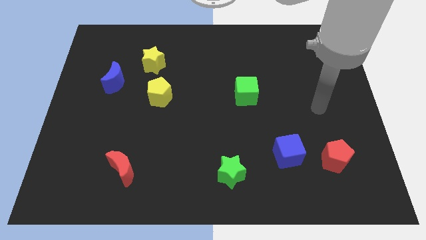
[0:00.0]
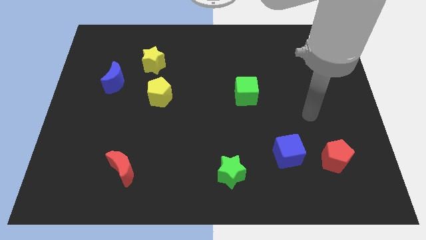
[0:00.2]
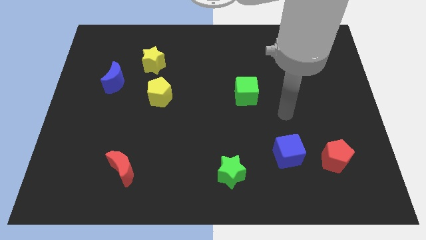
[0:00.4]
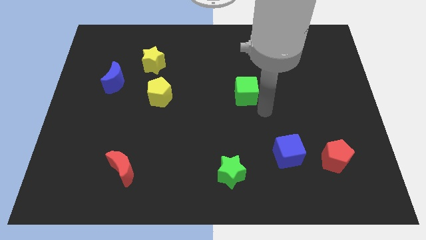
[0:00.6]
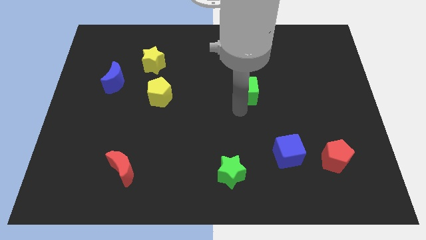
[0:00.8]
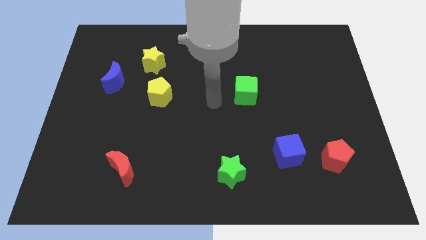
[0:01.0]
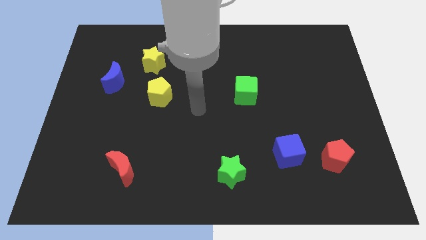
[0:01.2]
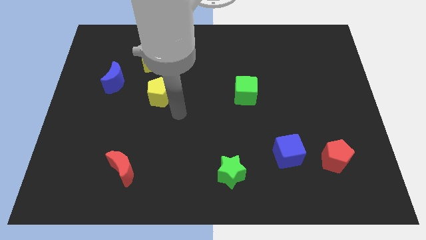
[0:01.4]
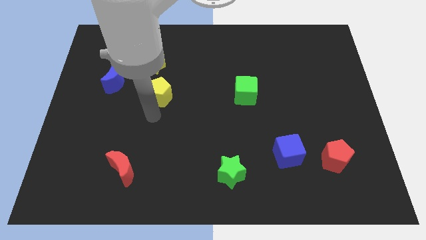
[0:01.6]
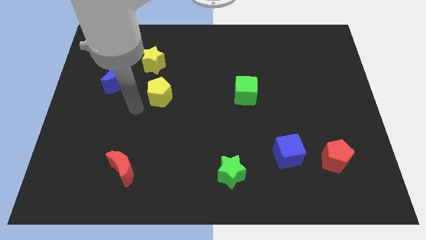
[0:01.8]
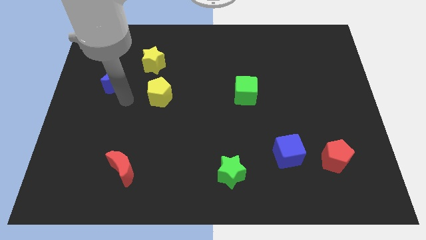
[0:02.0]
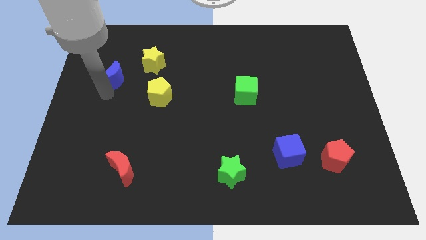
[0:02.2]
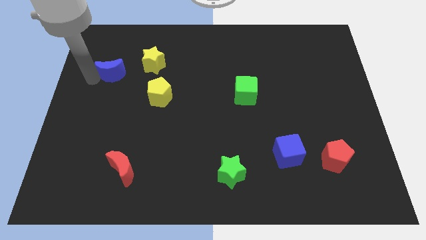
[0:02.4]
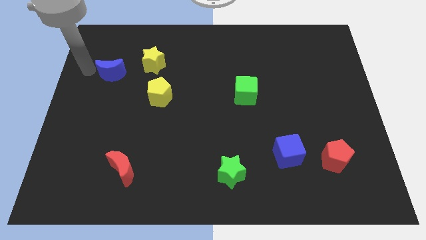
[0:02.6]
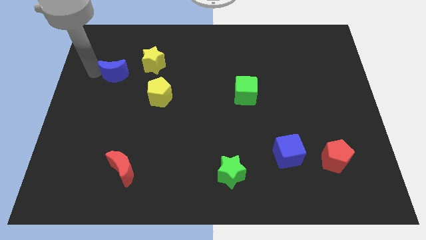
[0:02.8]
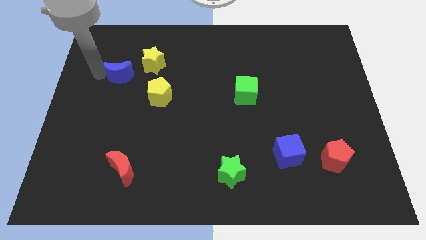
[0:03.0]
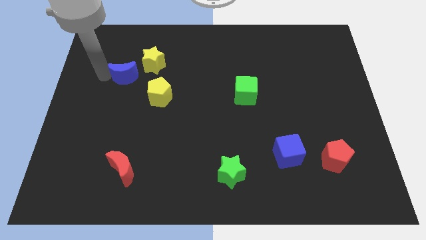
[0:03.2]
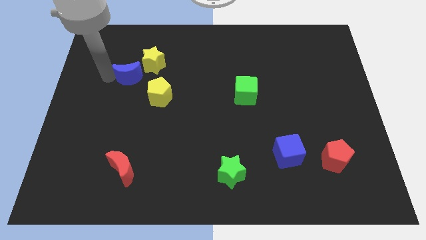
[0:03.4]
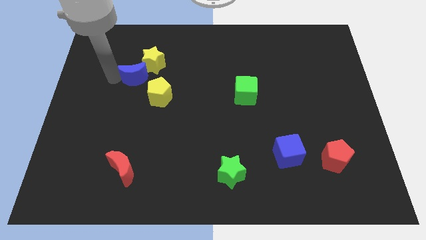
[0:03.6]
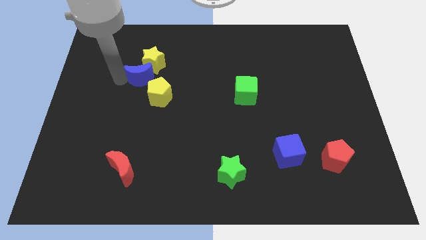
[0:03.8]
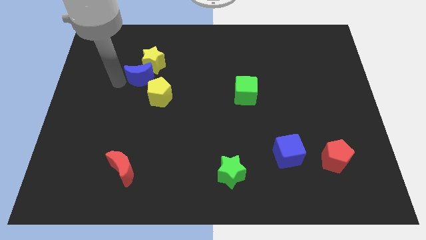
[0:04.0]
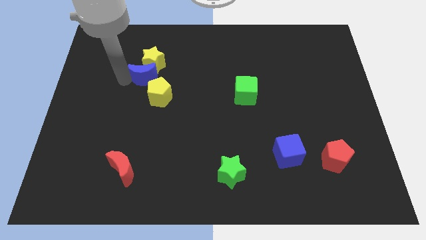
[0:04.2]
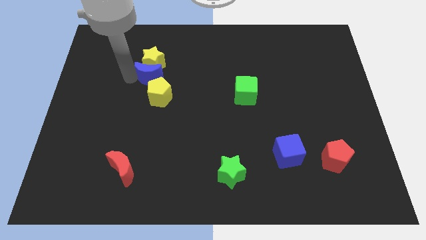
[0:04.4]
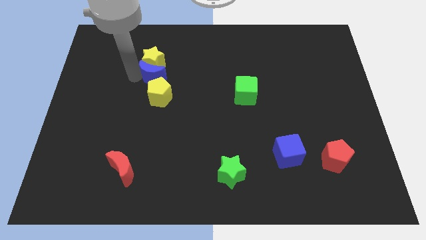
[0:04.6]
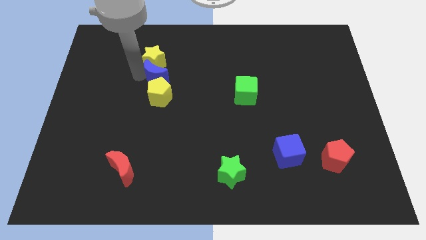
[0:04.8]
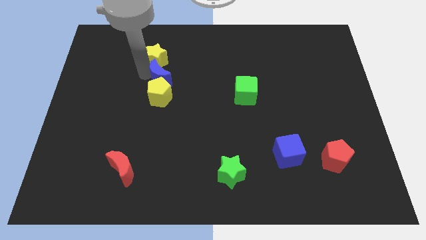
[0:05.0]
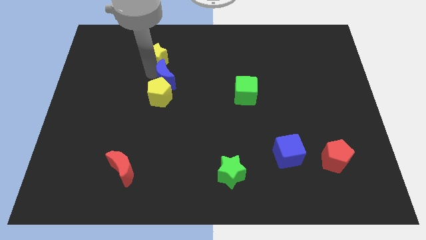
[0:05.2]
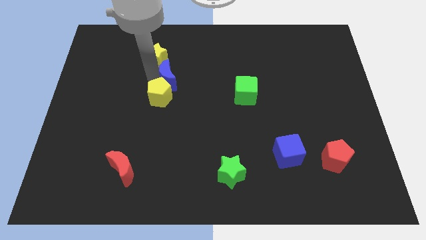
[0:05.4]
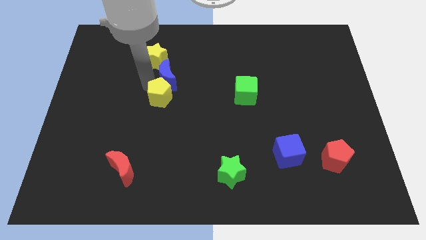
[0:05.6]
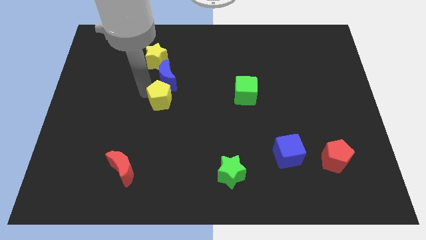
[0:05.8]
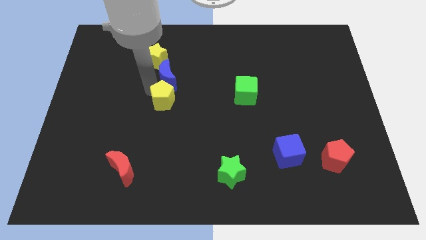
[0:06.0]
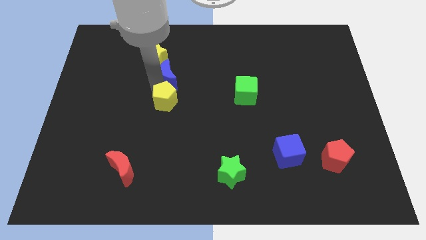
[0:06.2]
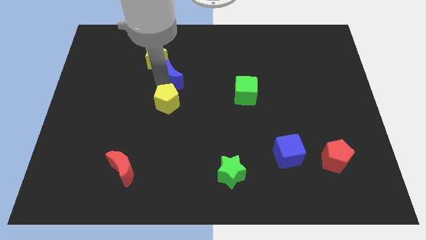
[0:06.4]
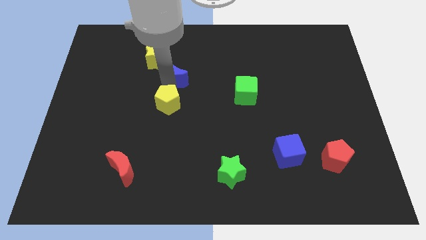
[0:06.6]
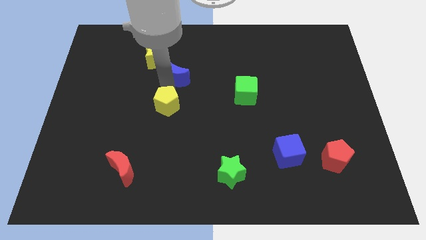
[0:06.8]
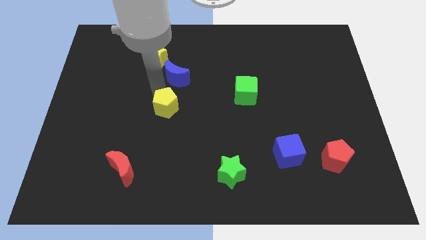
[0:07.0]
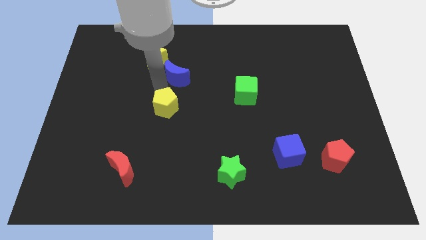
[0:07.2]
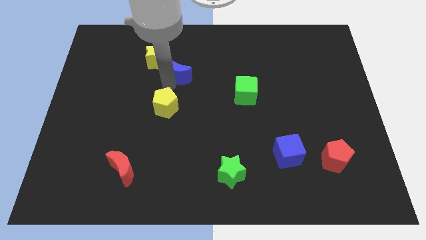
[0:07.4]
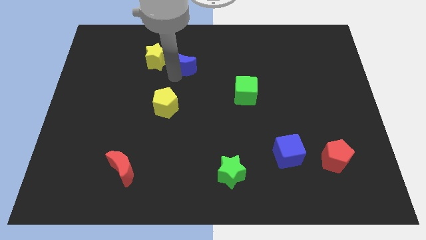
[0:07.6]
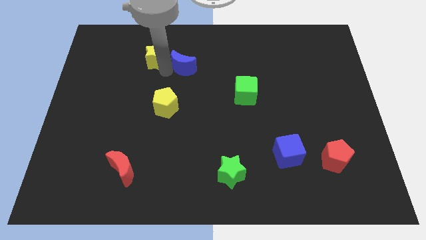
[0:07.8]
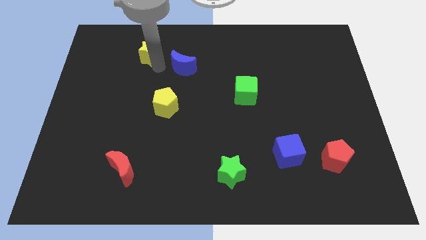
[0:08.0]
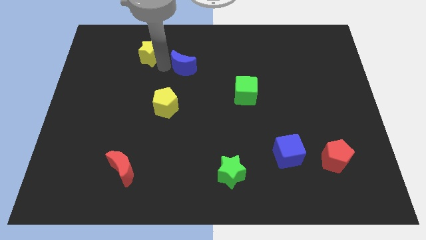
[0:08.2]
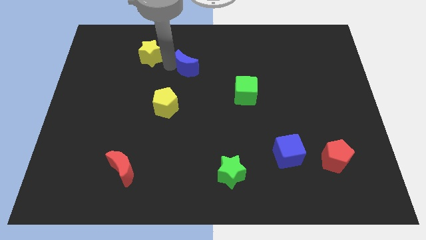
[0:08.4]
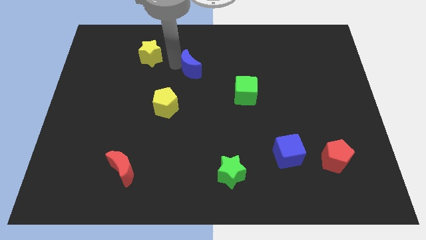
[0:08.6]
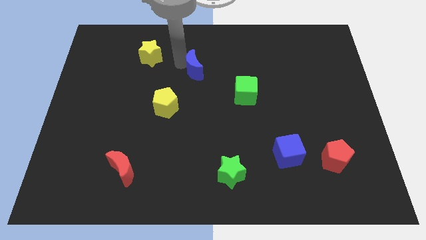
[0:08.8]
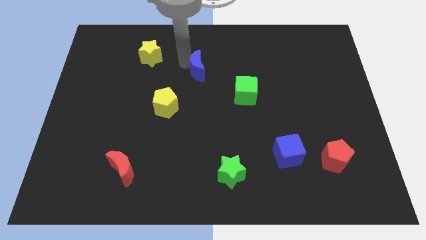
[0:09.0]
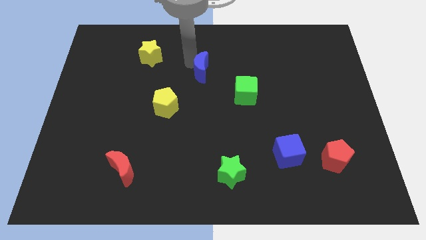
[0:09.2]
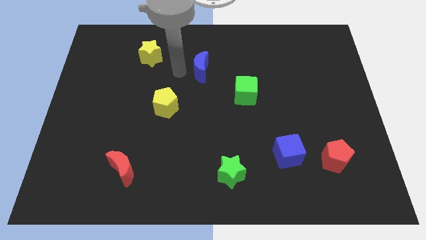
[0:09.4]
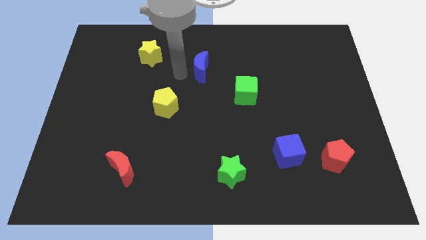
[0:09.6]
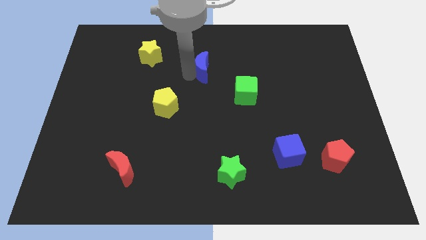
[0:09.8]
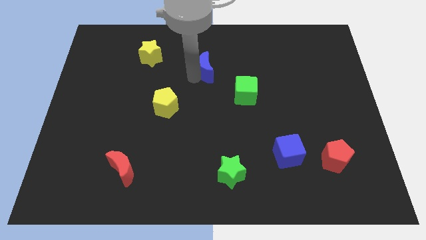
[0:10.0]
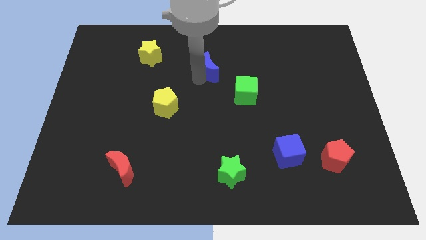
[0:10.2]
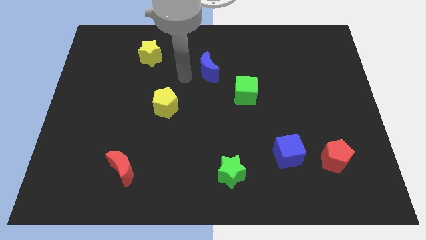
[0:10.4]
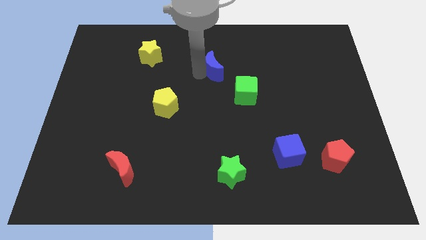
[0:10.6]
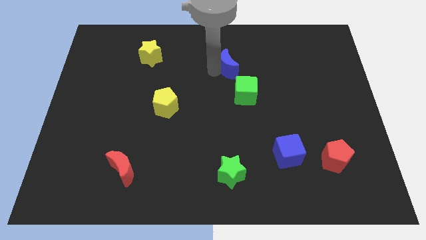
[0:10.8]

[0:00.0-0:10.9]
move the blue moon to the top of the green cube

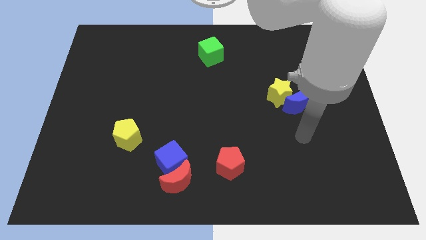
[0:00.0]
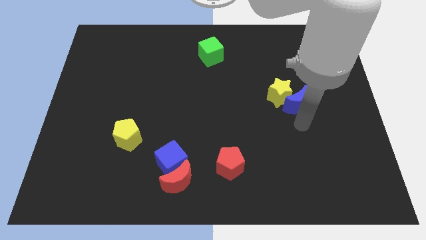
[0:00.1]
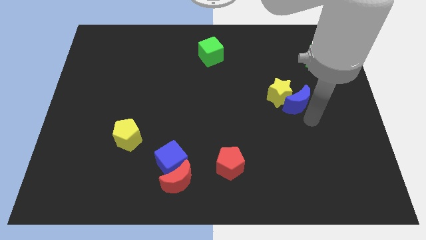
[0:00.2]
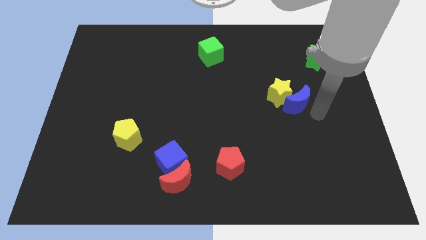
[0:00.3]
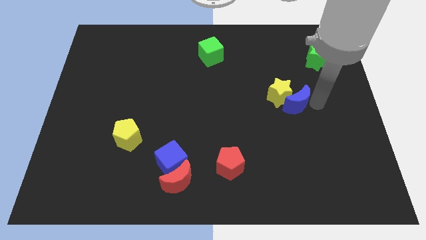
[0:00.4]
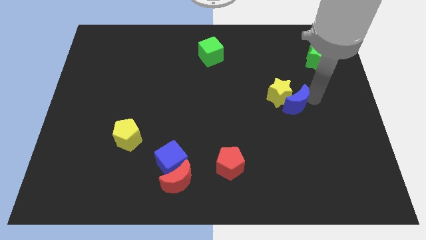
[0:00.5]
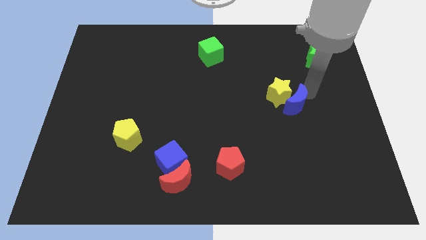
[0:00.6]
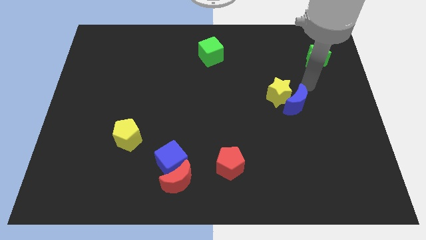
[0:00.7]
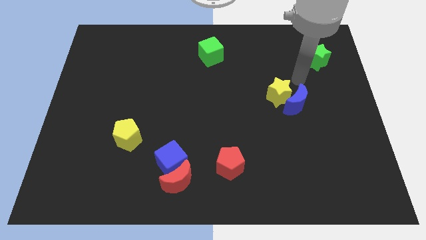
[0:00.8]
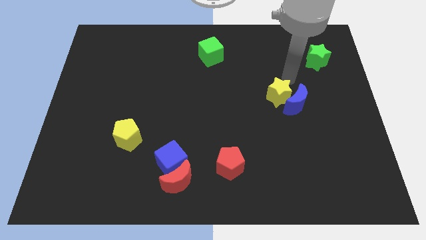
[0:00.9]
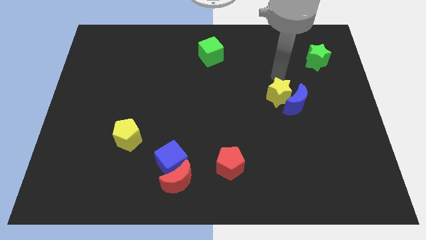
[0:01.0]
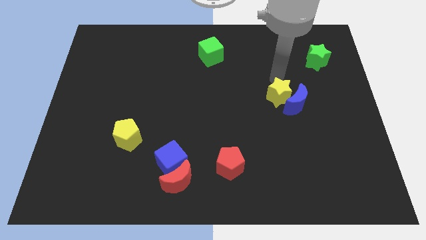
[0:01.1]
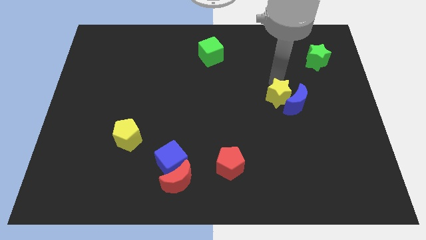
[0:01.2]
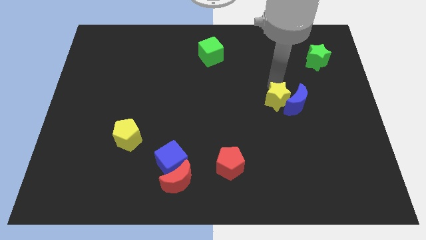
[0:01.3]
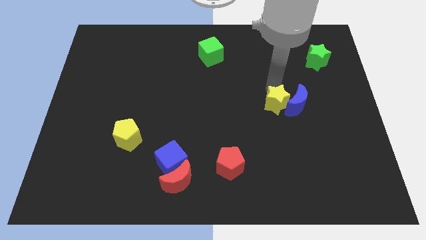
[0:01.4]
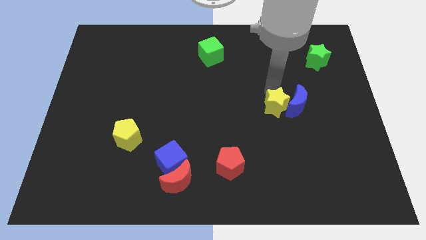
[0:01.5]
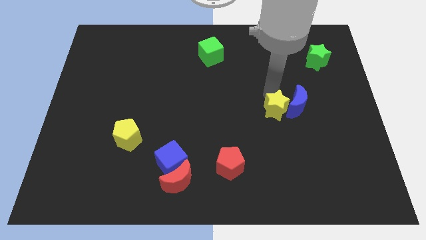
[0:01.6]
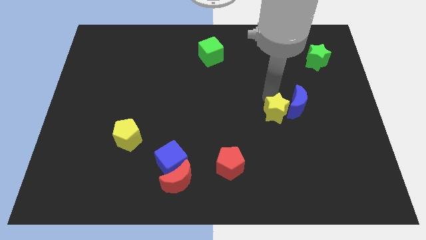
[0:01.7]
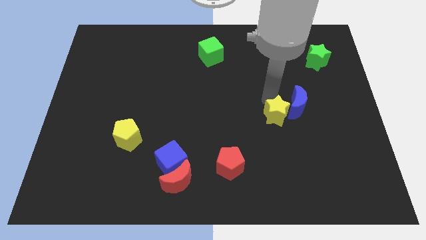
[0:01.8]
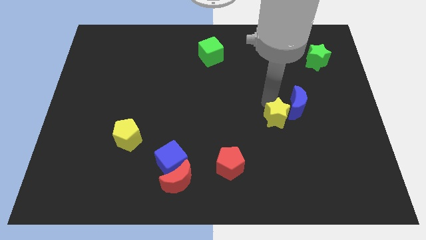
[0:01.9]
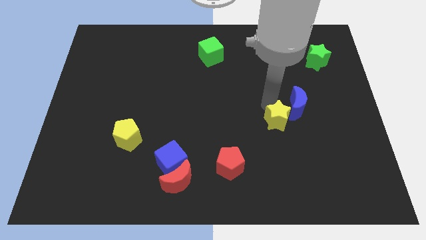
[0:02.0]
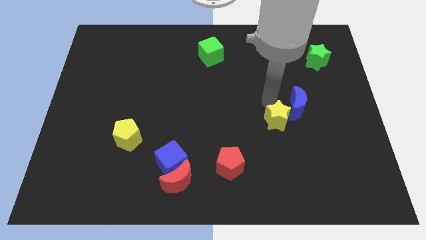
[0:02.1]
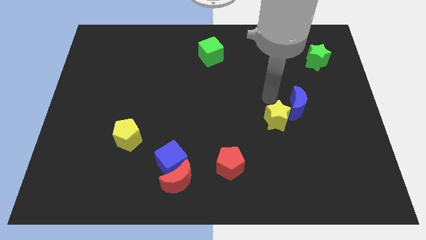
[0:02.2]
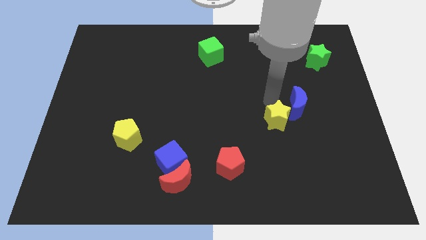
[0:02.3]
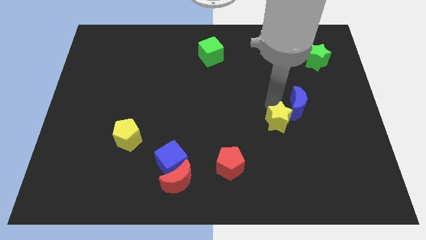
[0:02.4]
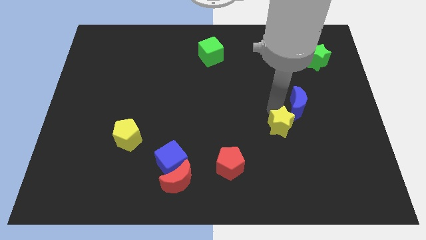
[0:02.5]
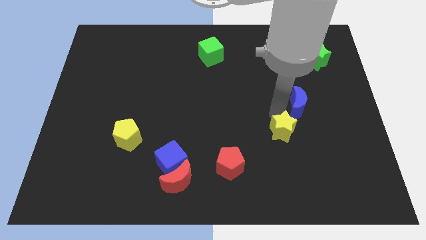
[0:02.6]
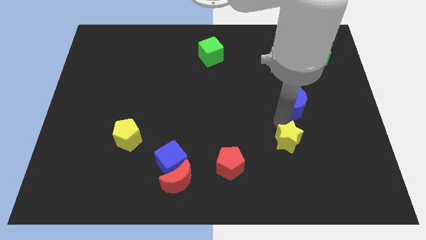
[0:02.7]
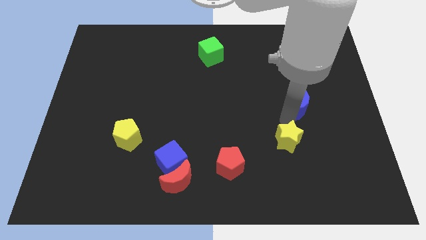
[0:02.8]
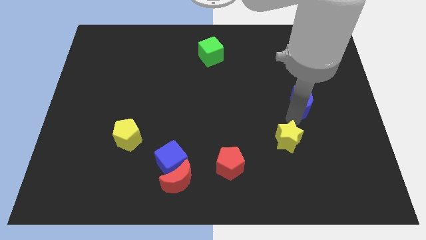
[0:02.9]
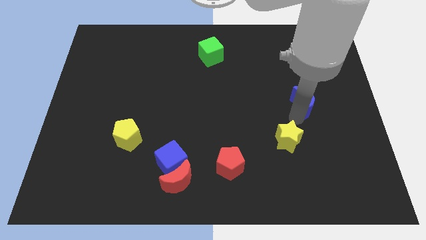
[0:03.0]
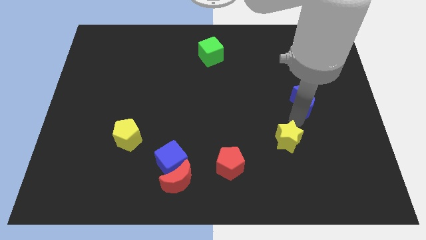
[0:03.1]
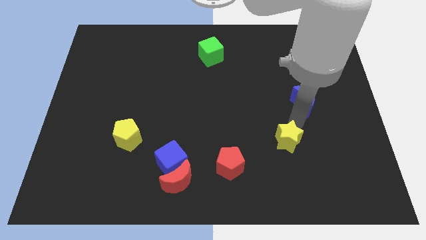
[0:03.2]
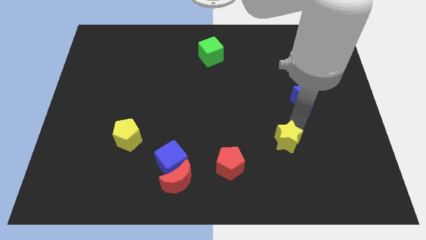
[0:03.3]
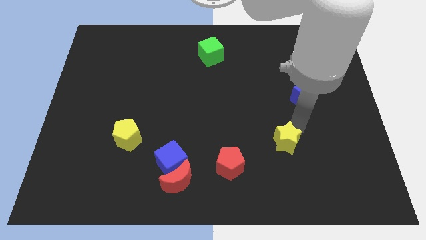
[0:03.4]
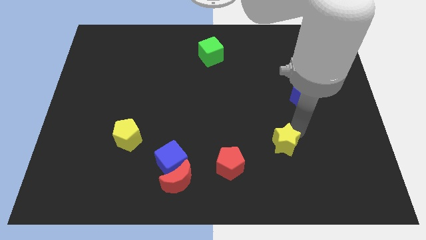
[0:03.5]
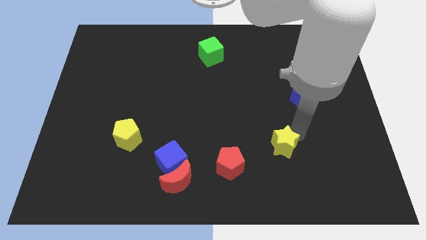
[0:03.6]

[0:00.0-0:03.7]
push the yellow star just right of the red pentagon
